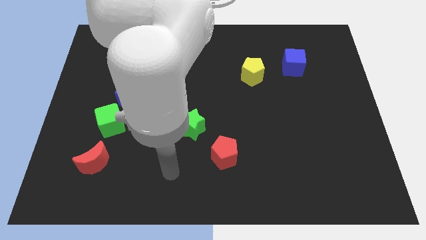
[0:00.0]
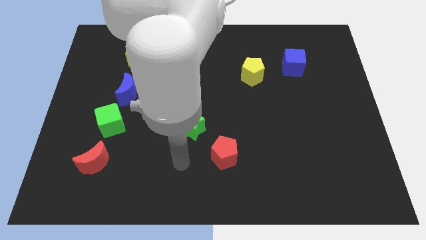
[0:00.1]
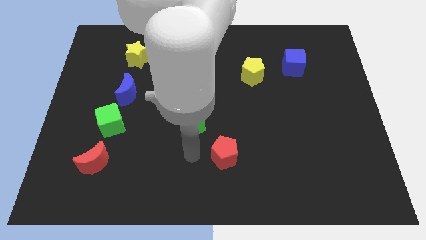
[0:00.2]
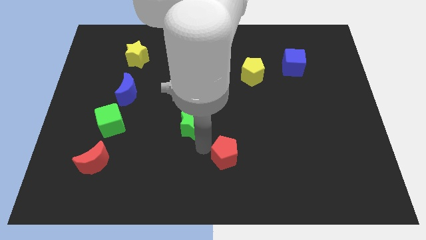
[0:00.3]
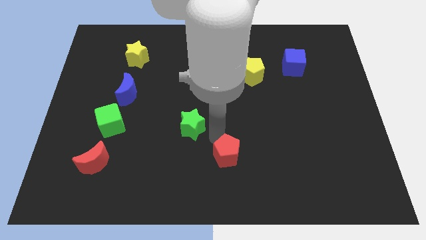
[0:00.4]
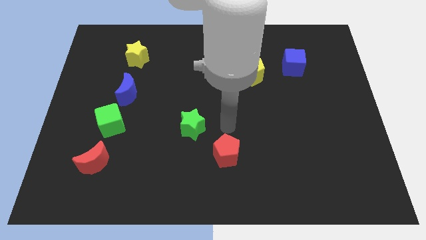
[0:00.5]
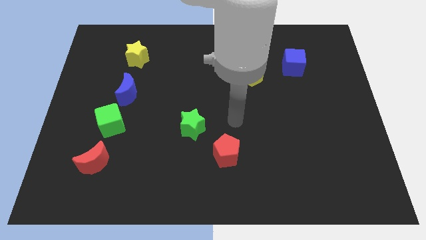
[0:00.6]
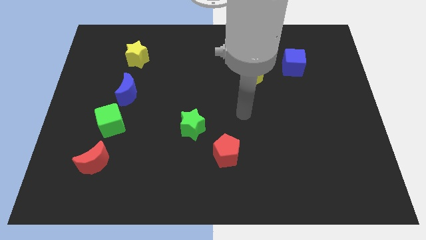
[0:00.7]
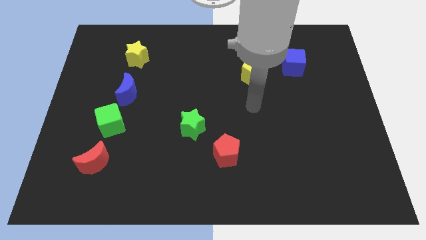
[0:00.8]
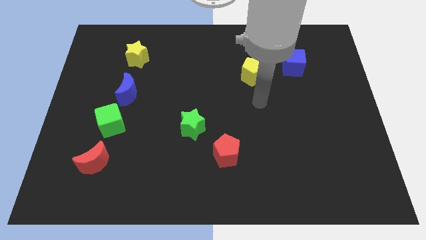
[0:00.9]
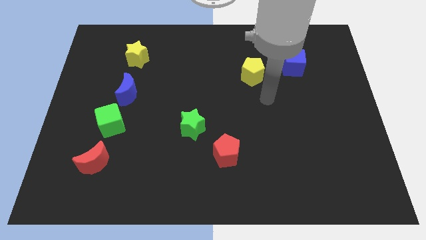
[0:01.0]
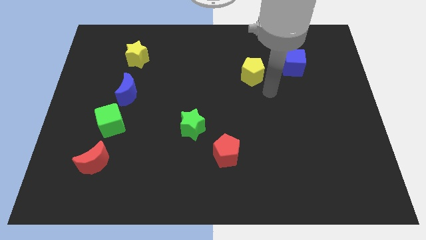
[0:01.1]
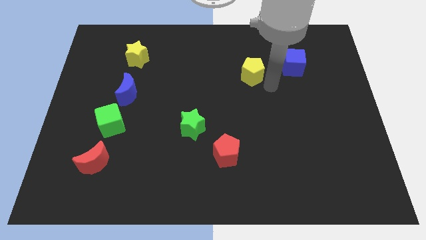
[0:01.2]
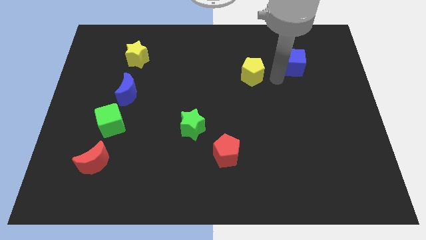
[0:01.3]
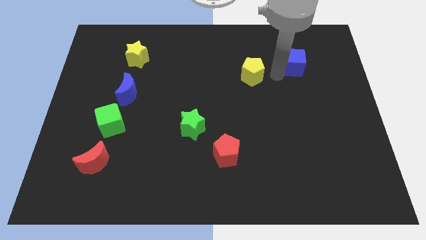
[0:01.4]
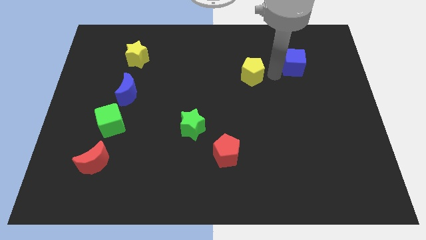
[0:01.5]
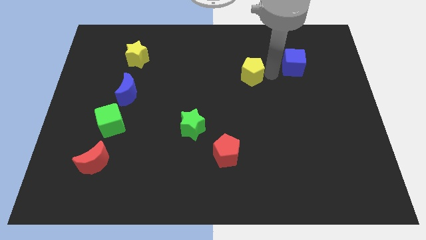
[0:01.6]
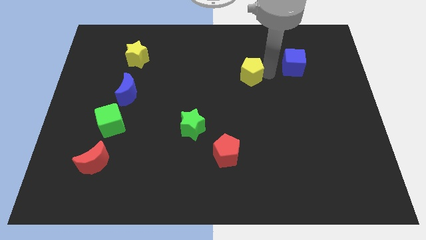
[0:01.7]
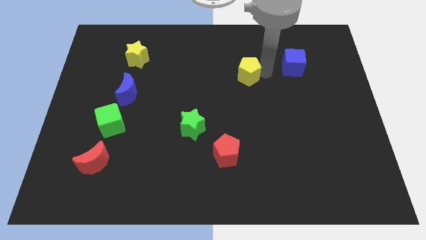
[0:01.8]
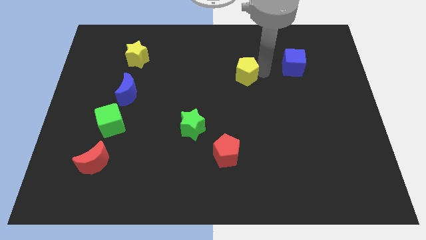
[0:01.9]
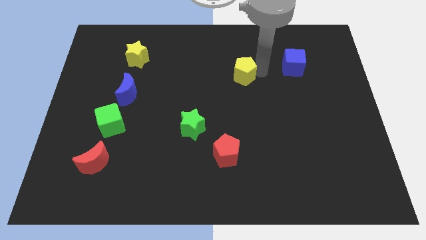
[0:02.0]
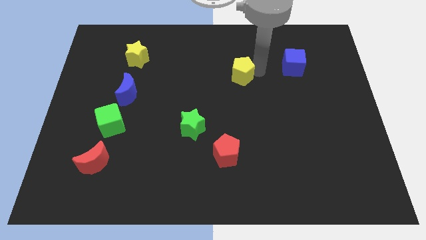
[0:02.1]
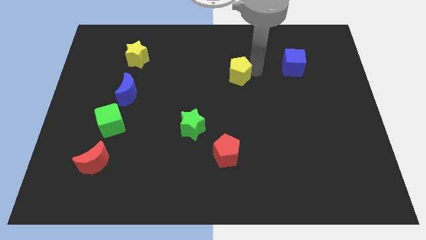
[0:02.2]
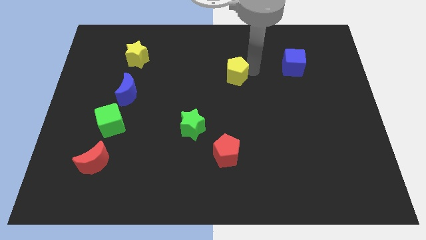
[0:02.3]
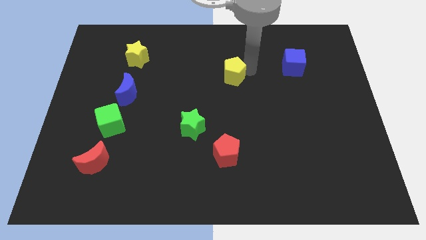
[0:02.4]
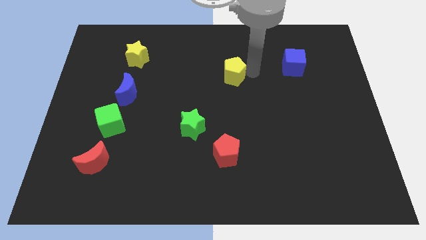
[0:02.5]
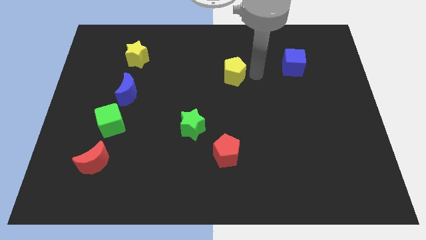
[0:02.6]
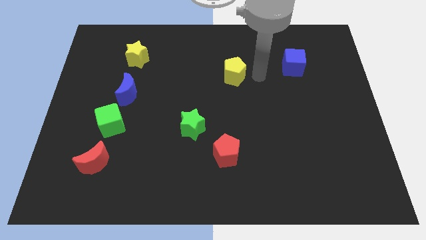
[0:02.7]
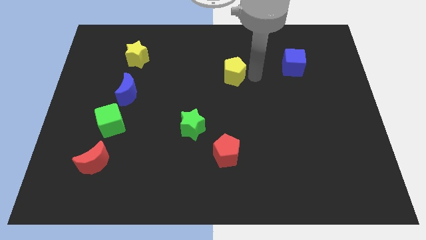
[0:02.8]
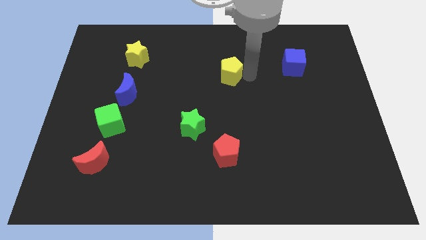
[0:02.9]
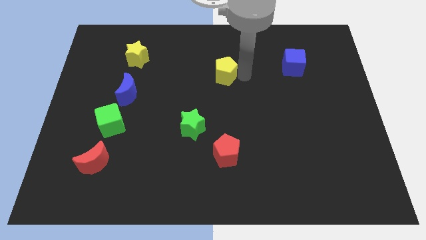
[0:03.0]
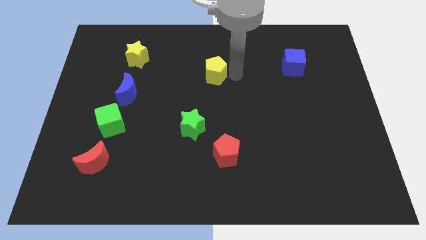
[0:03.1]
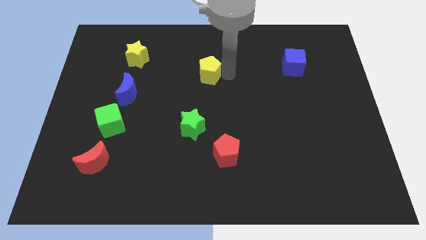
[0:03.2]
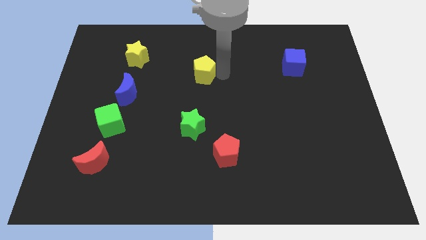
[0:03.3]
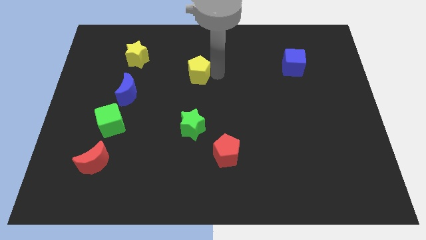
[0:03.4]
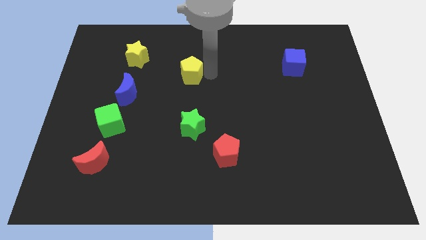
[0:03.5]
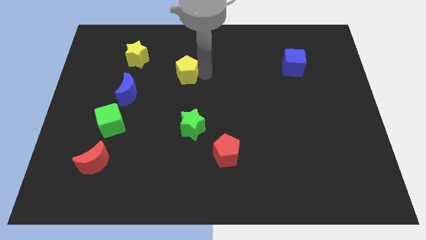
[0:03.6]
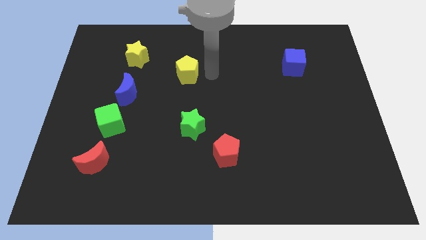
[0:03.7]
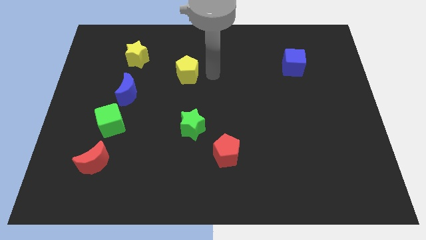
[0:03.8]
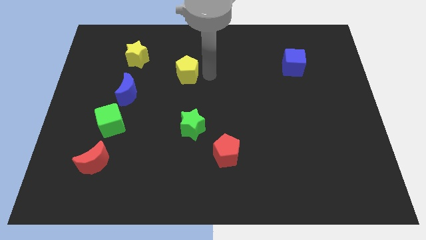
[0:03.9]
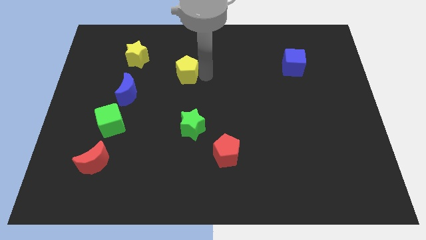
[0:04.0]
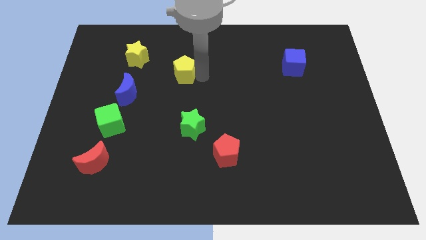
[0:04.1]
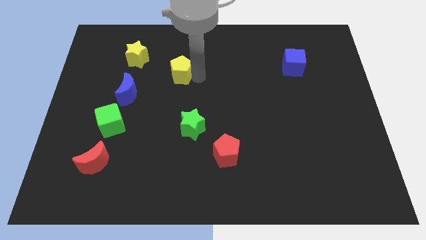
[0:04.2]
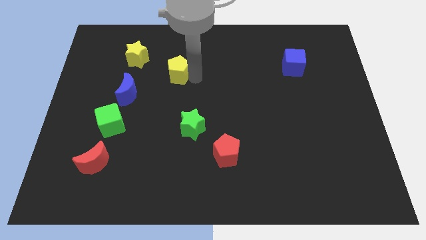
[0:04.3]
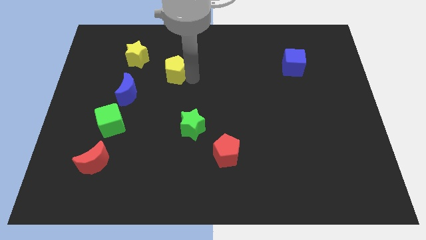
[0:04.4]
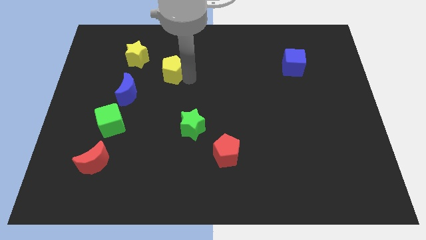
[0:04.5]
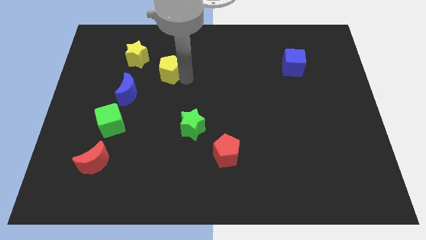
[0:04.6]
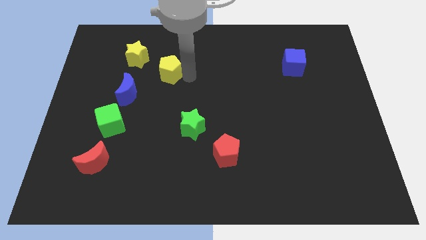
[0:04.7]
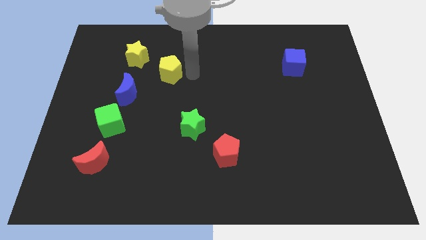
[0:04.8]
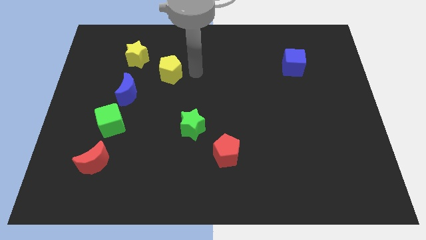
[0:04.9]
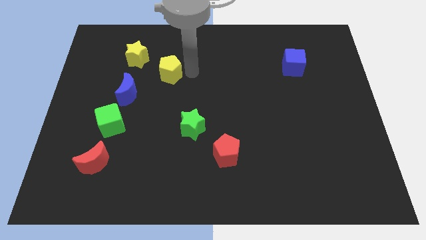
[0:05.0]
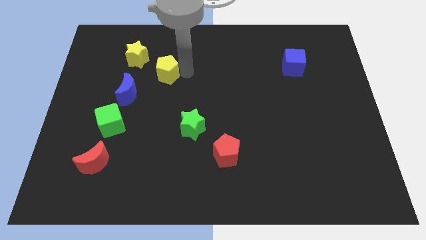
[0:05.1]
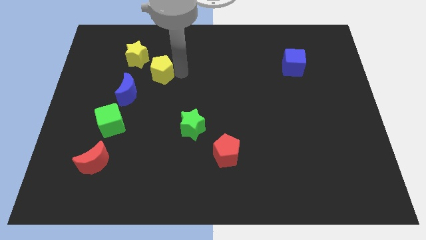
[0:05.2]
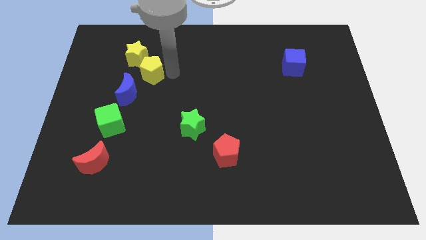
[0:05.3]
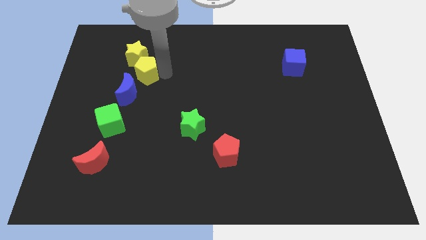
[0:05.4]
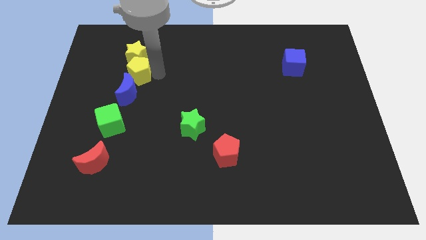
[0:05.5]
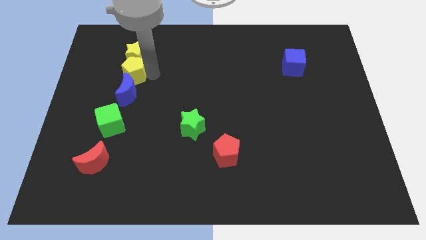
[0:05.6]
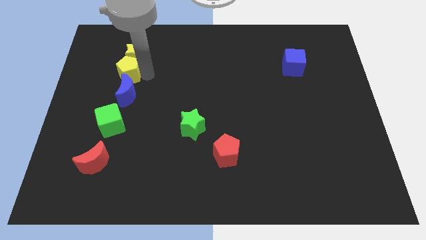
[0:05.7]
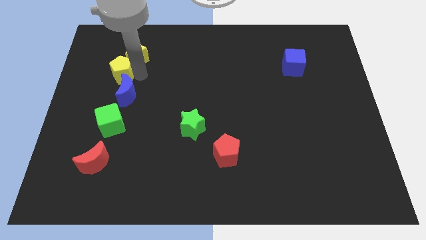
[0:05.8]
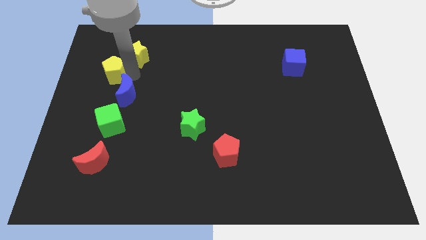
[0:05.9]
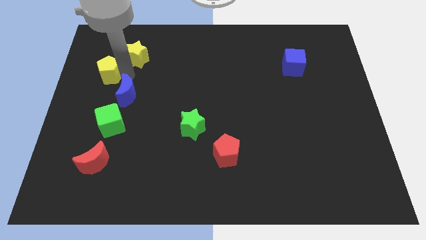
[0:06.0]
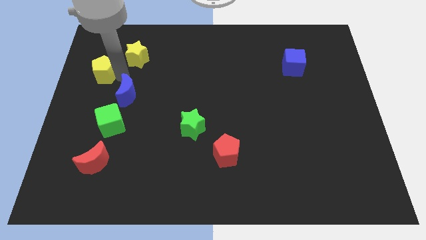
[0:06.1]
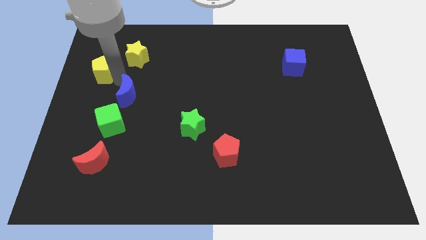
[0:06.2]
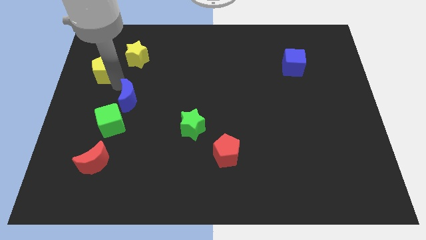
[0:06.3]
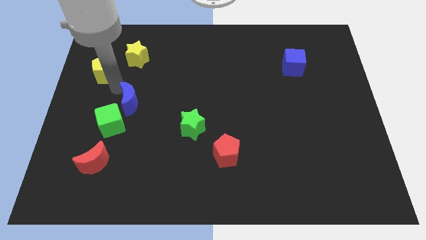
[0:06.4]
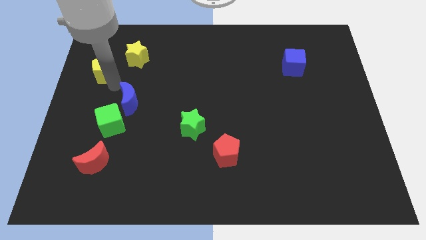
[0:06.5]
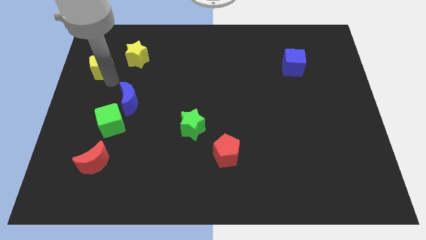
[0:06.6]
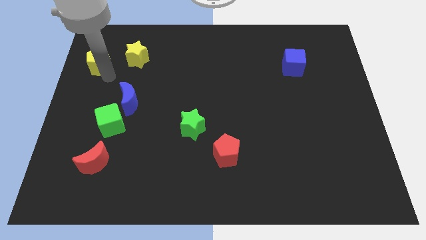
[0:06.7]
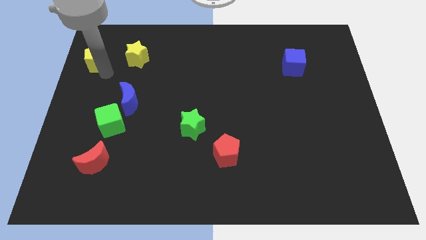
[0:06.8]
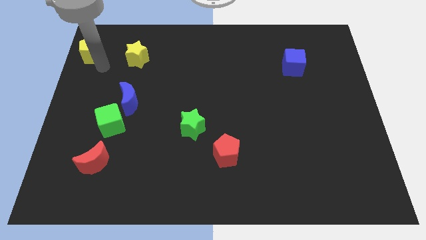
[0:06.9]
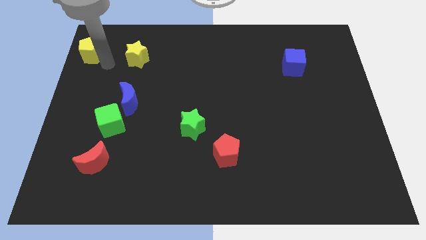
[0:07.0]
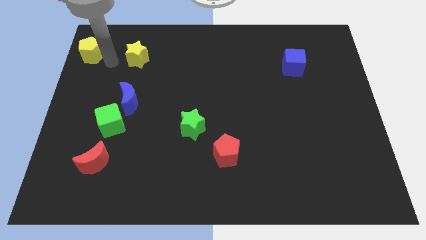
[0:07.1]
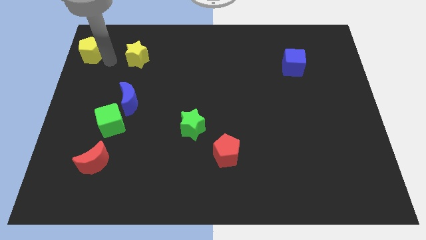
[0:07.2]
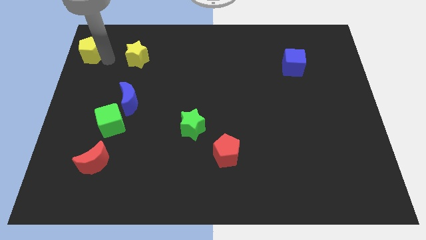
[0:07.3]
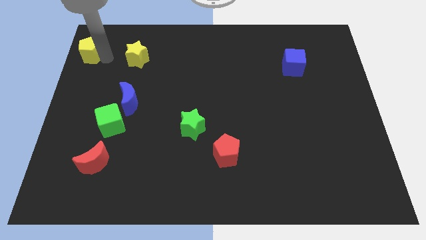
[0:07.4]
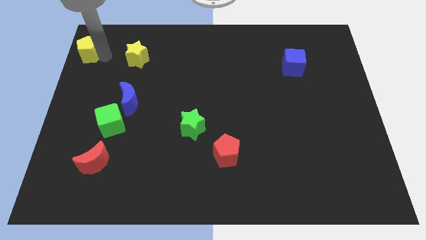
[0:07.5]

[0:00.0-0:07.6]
move the yellow pentagon to the upper left corner
